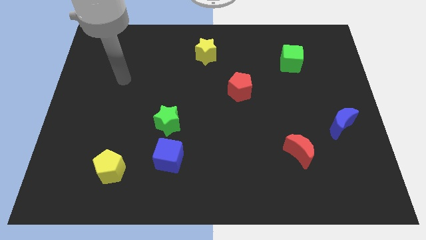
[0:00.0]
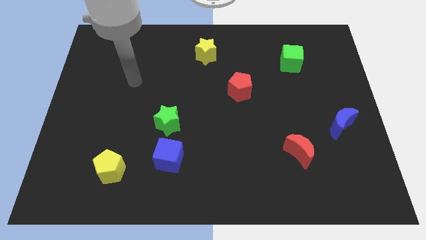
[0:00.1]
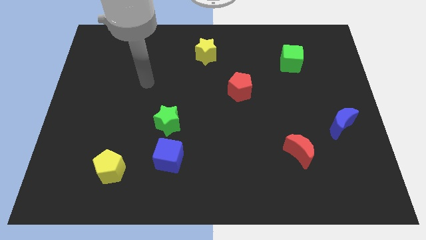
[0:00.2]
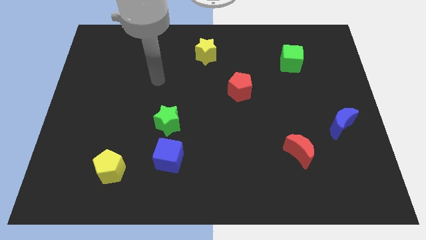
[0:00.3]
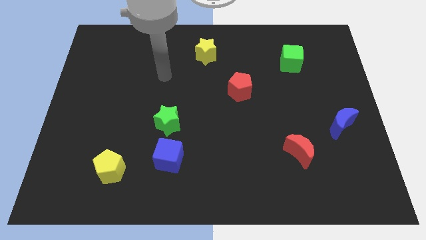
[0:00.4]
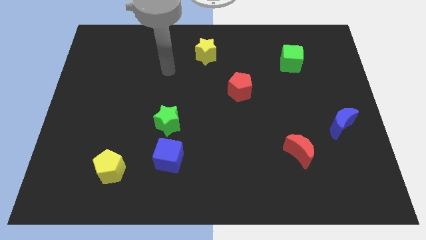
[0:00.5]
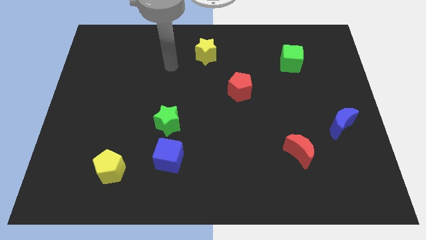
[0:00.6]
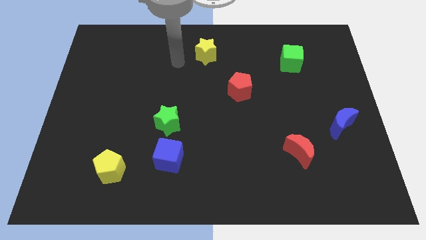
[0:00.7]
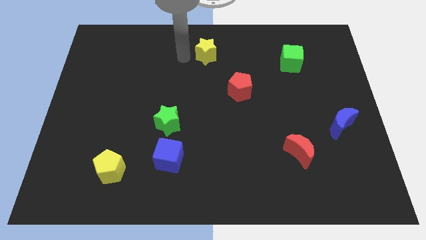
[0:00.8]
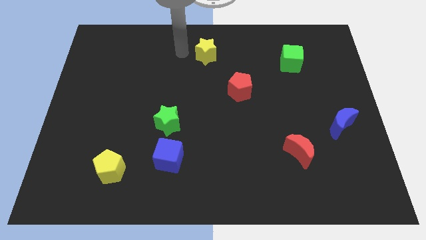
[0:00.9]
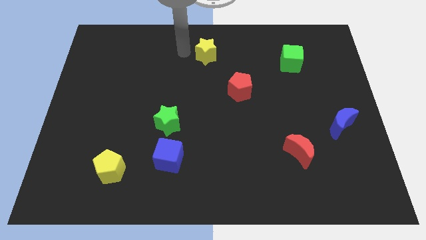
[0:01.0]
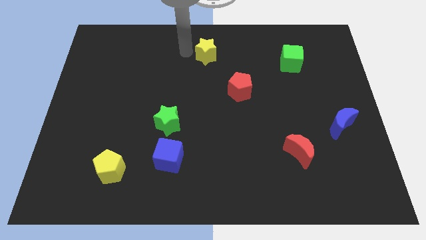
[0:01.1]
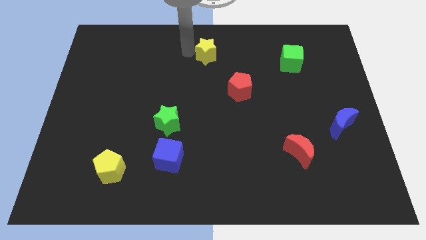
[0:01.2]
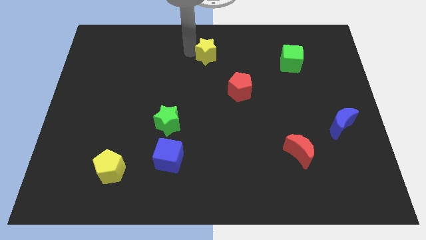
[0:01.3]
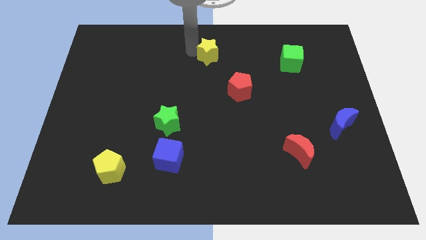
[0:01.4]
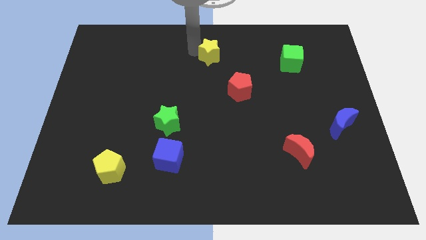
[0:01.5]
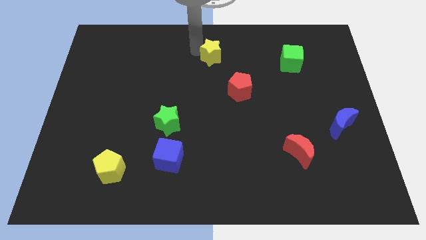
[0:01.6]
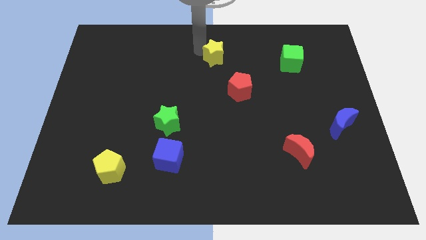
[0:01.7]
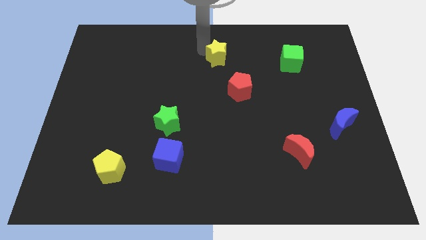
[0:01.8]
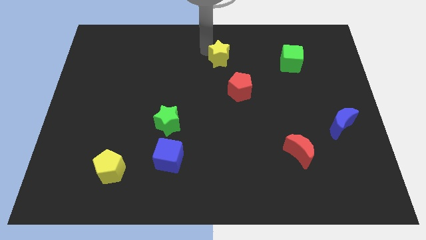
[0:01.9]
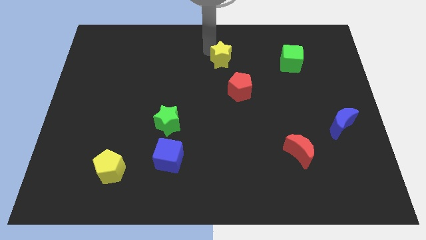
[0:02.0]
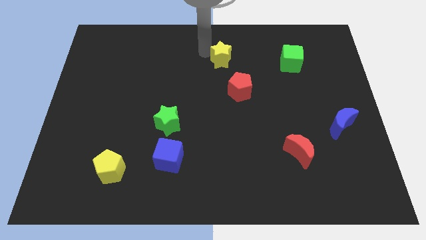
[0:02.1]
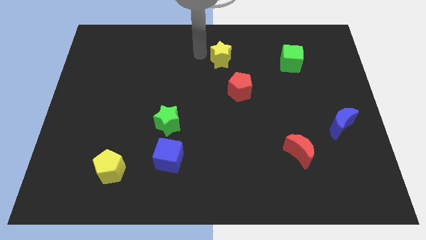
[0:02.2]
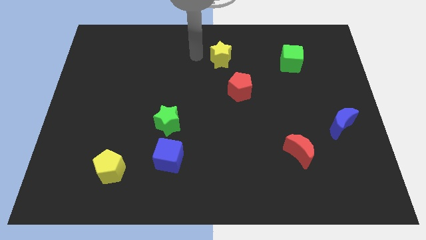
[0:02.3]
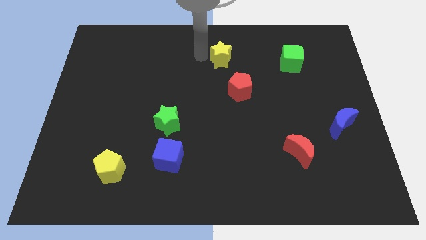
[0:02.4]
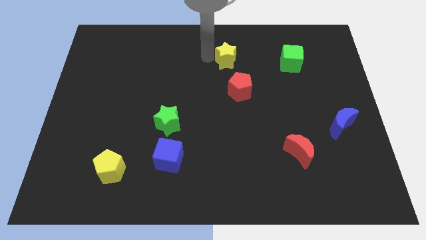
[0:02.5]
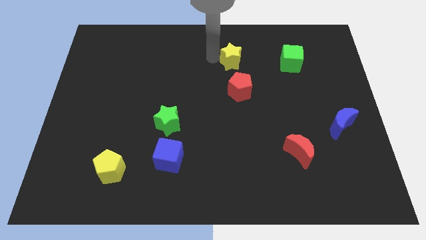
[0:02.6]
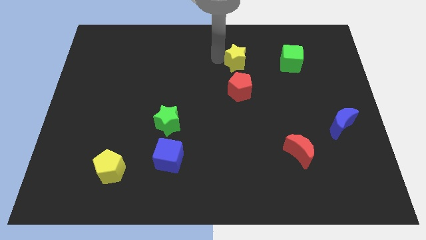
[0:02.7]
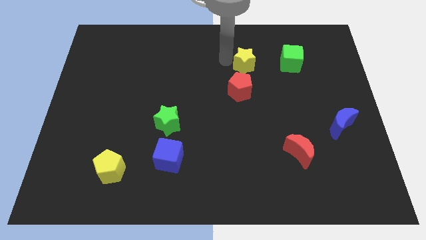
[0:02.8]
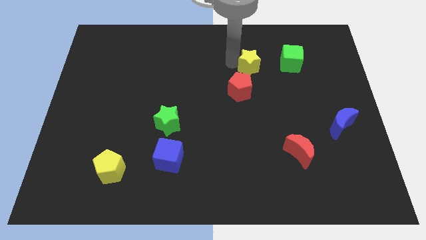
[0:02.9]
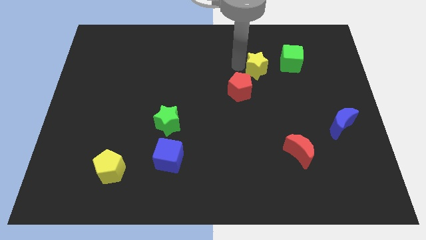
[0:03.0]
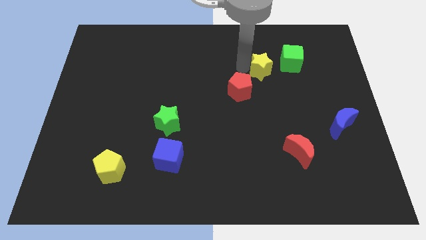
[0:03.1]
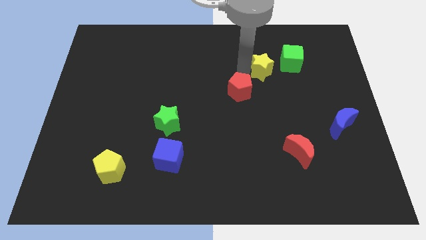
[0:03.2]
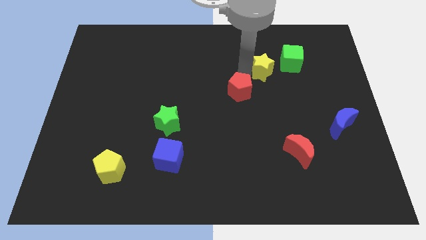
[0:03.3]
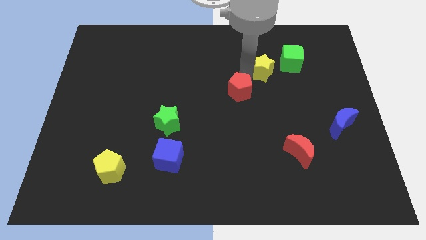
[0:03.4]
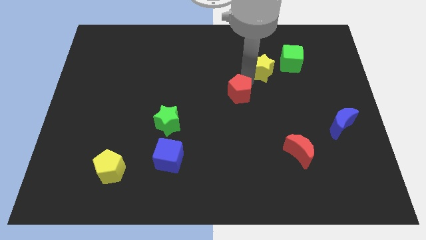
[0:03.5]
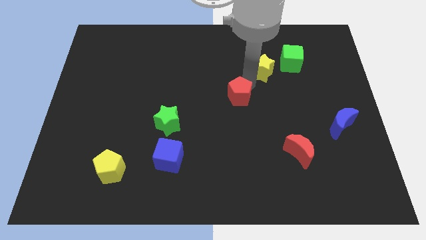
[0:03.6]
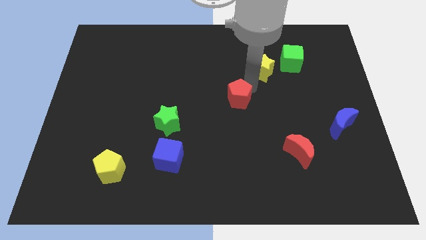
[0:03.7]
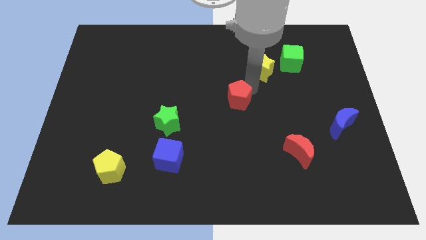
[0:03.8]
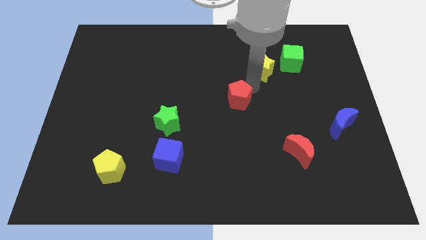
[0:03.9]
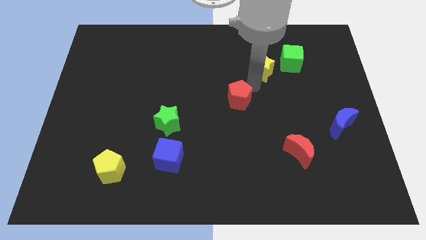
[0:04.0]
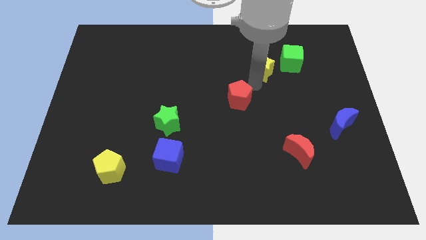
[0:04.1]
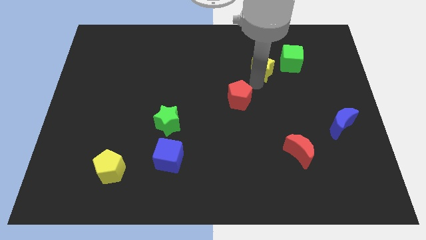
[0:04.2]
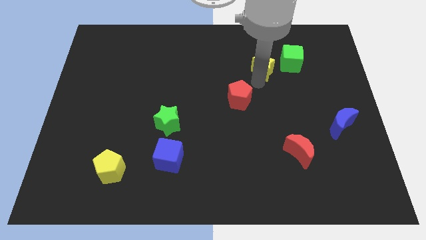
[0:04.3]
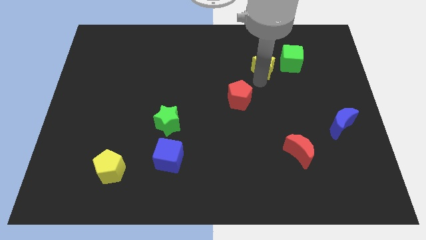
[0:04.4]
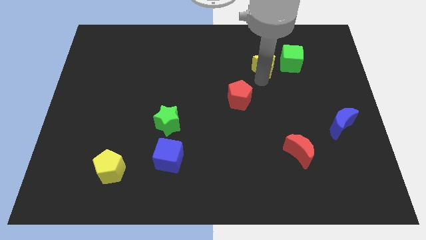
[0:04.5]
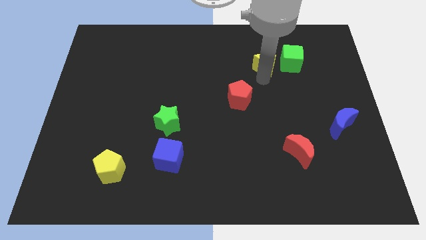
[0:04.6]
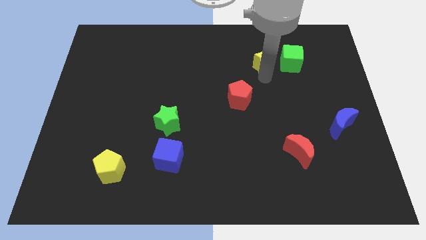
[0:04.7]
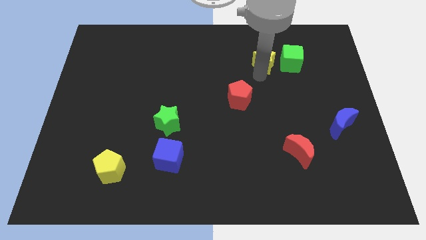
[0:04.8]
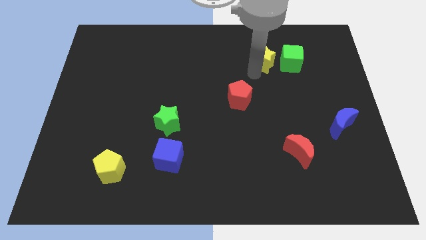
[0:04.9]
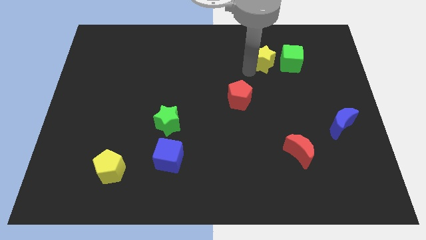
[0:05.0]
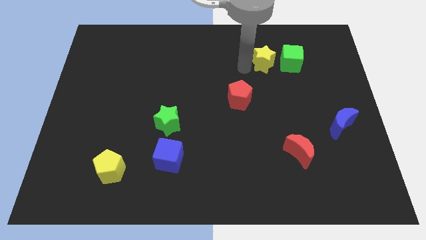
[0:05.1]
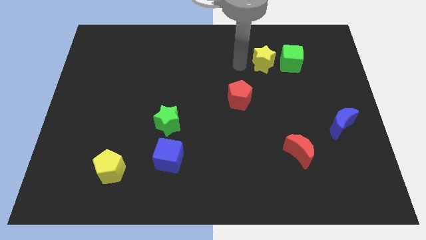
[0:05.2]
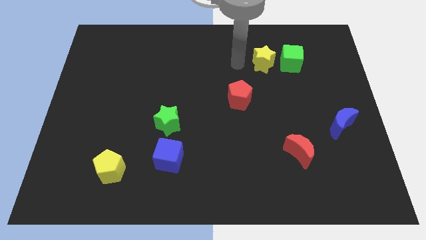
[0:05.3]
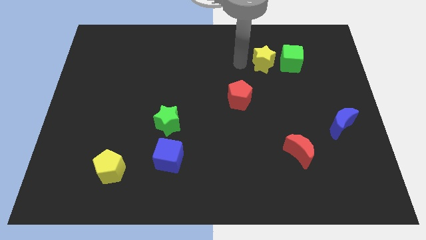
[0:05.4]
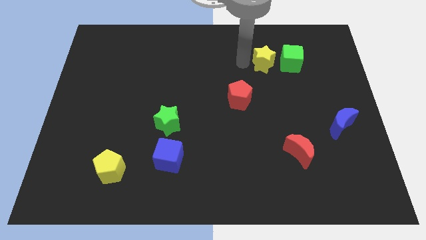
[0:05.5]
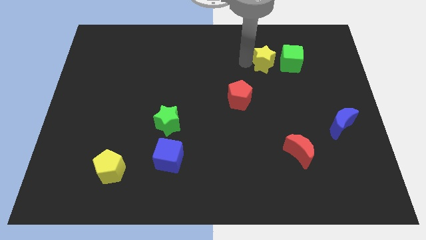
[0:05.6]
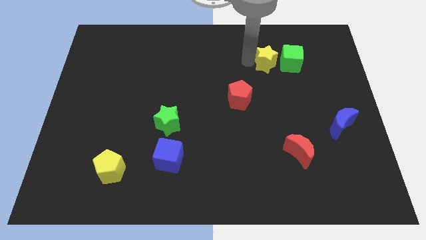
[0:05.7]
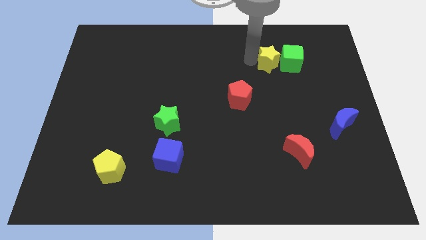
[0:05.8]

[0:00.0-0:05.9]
push the yellow star to the green cube

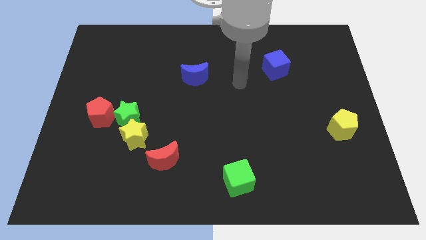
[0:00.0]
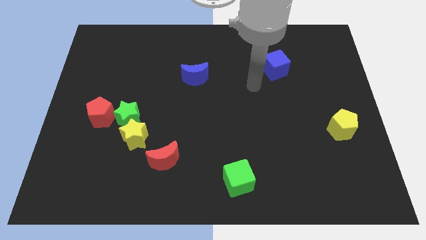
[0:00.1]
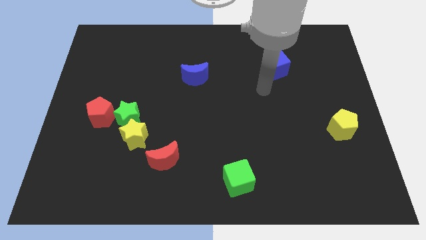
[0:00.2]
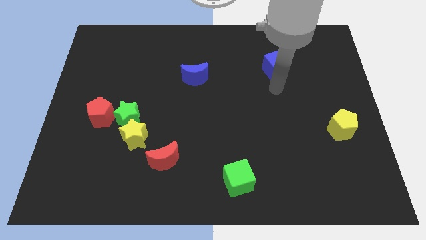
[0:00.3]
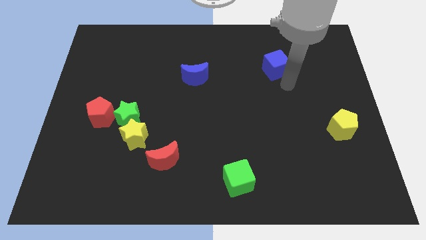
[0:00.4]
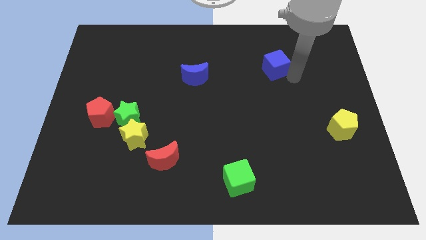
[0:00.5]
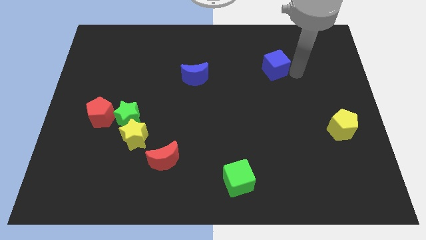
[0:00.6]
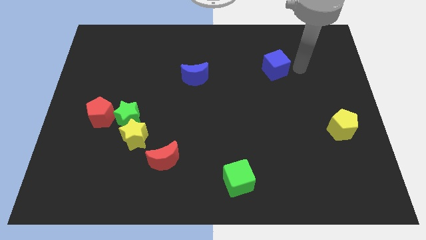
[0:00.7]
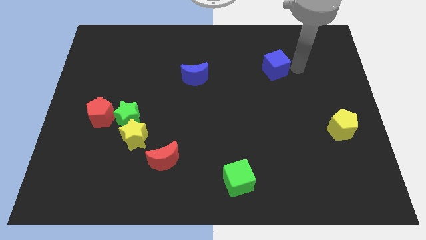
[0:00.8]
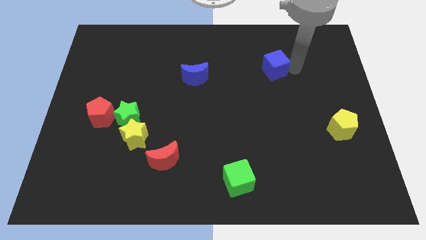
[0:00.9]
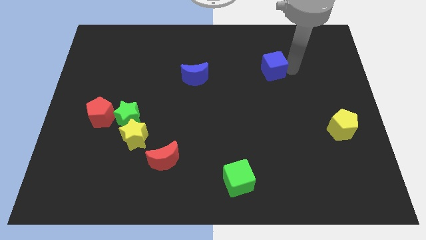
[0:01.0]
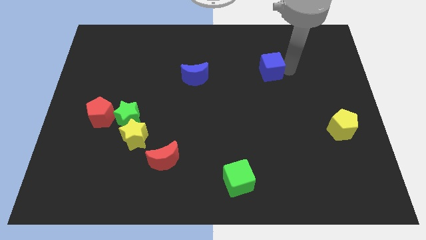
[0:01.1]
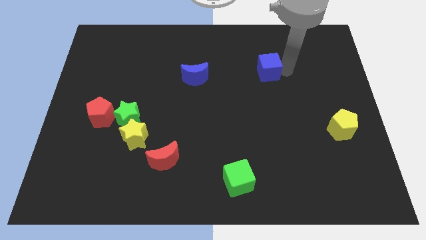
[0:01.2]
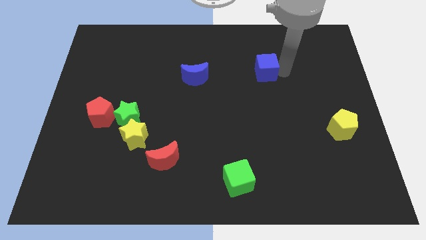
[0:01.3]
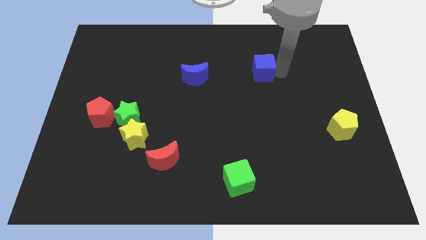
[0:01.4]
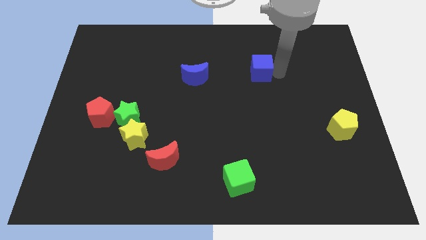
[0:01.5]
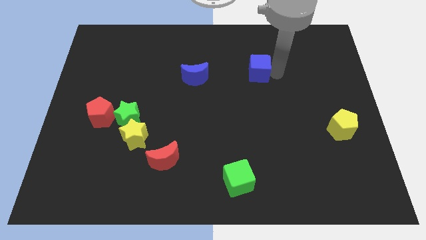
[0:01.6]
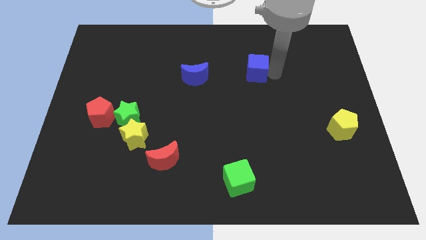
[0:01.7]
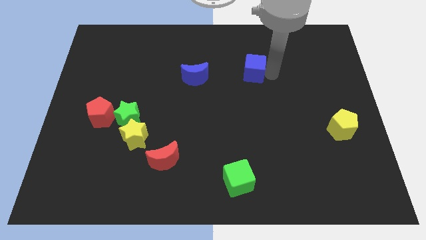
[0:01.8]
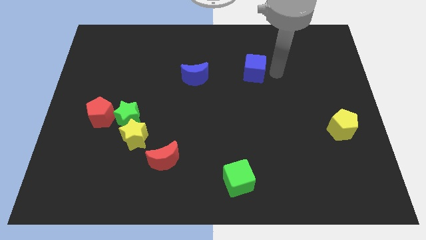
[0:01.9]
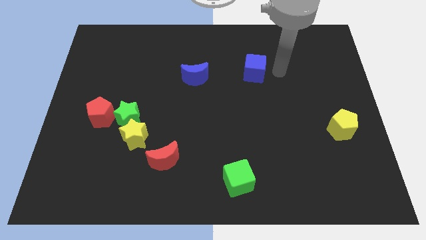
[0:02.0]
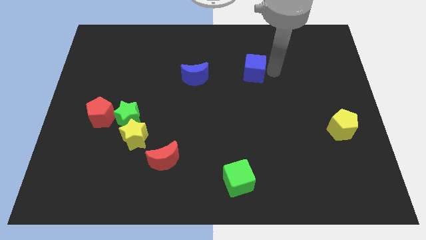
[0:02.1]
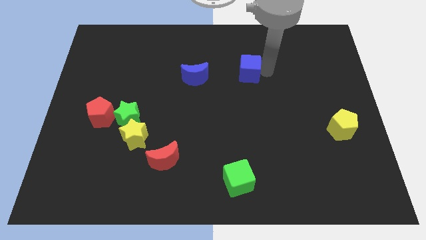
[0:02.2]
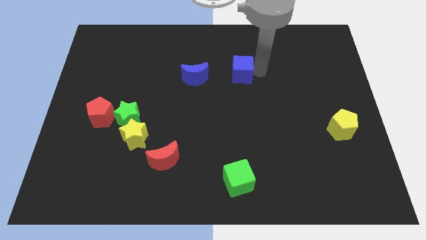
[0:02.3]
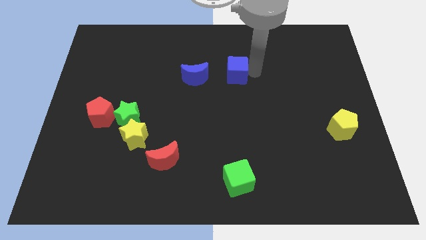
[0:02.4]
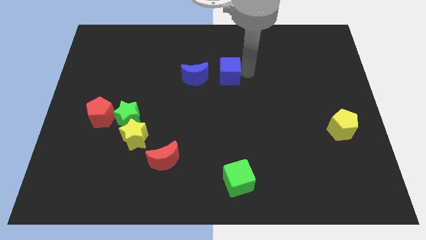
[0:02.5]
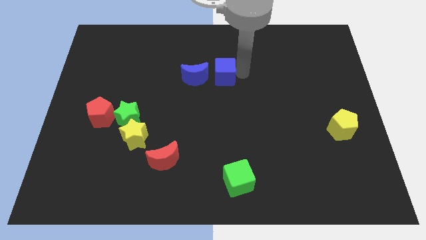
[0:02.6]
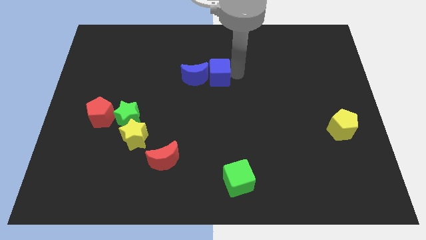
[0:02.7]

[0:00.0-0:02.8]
push the blue cube to the blue moon
